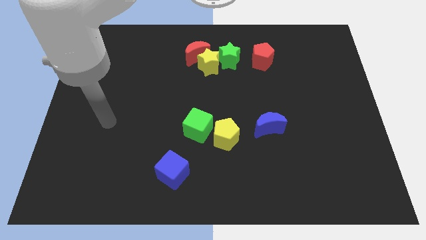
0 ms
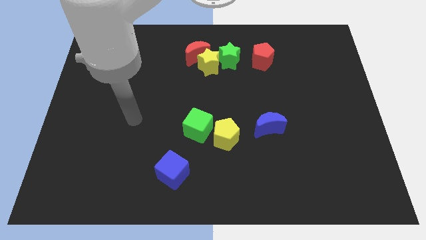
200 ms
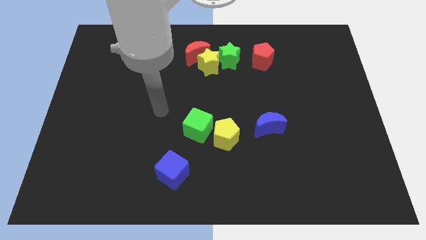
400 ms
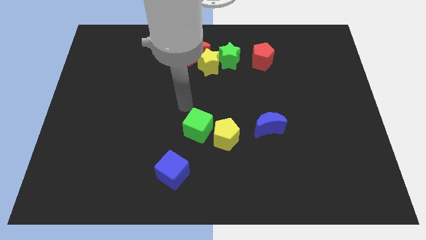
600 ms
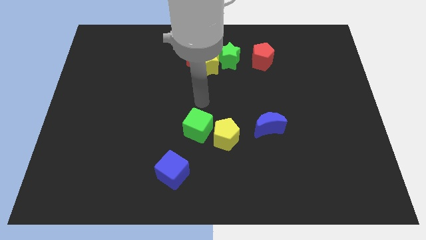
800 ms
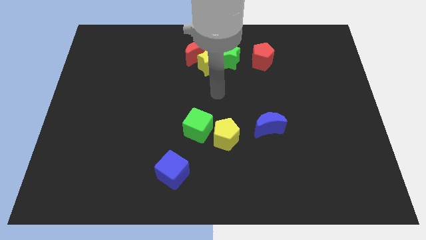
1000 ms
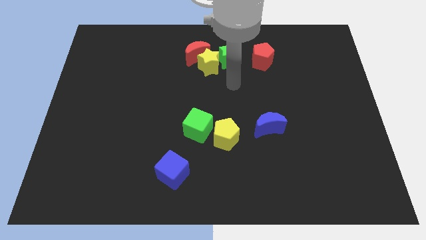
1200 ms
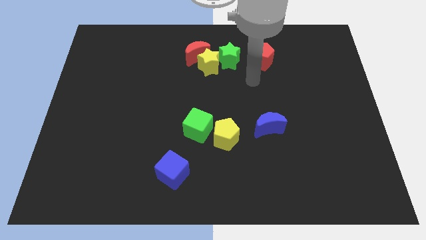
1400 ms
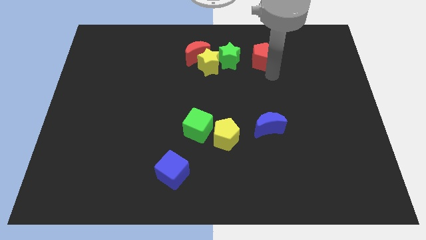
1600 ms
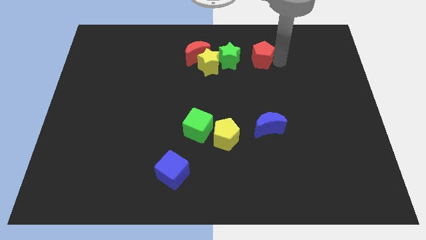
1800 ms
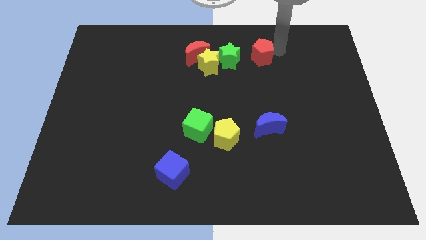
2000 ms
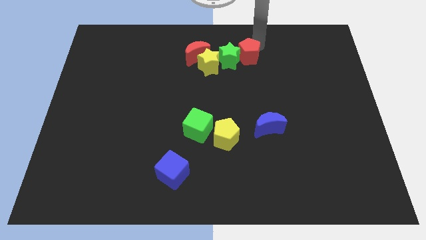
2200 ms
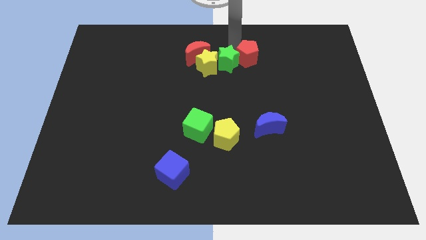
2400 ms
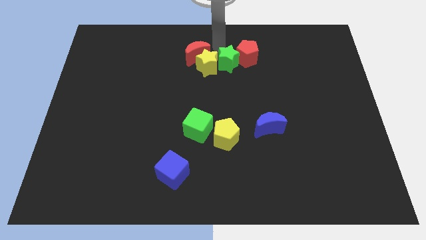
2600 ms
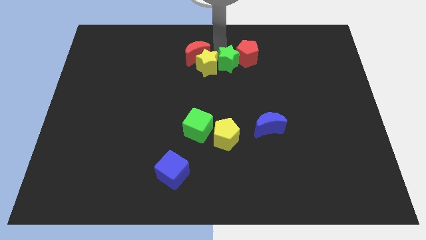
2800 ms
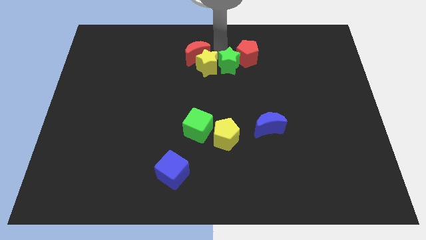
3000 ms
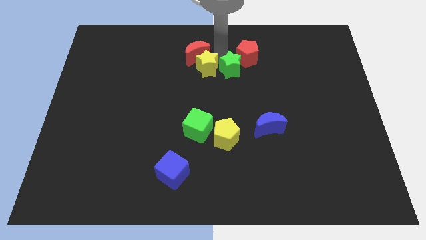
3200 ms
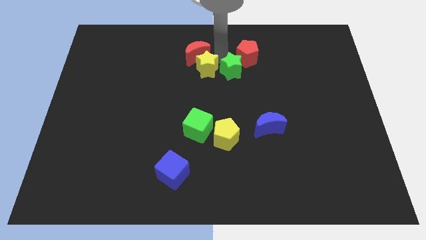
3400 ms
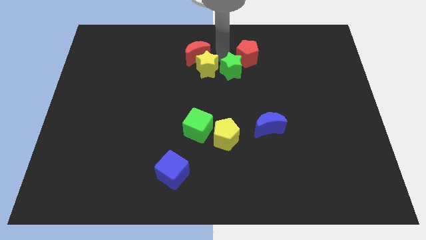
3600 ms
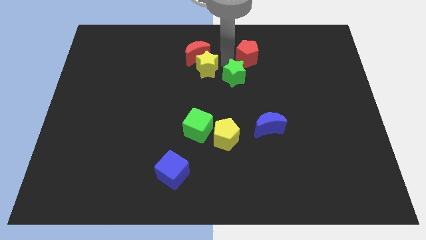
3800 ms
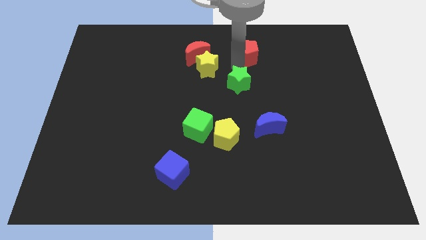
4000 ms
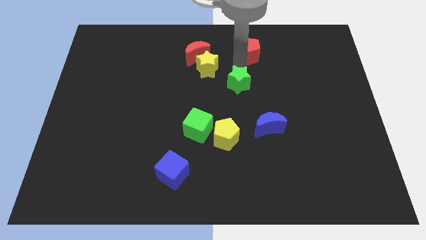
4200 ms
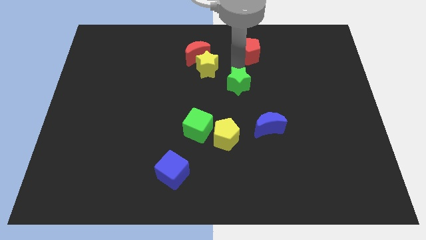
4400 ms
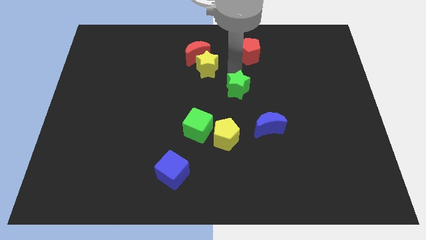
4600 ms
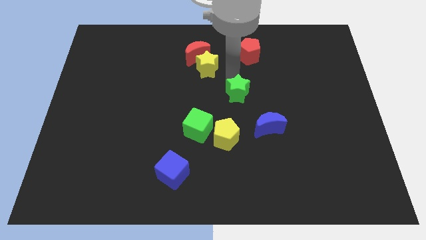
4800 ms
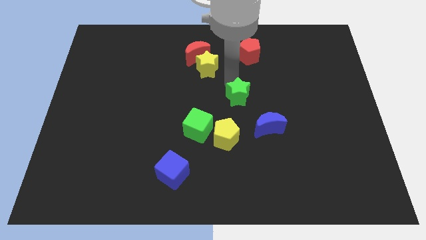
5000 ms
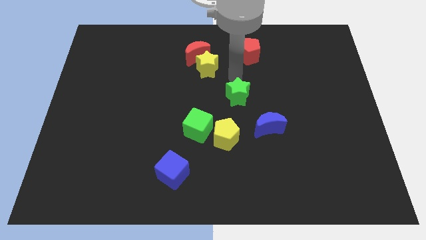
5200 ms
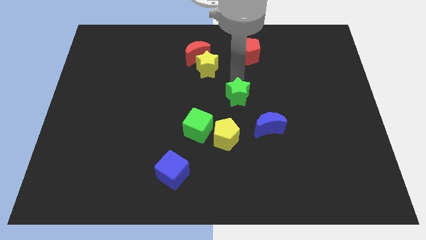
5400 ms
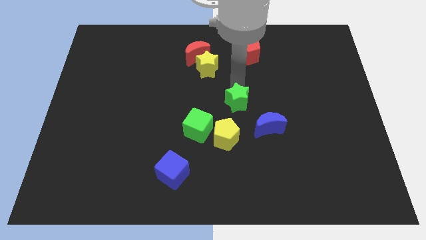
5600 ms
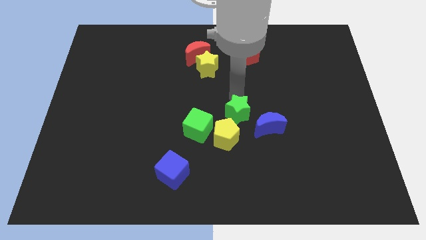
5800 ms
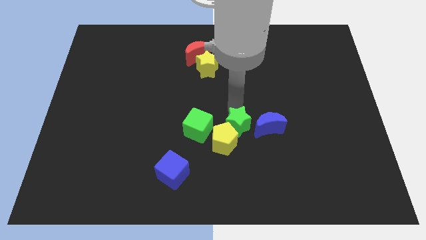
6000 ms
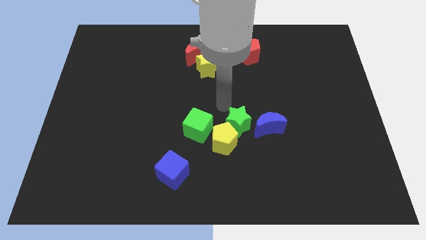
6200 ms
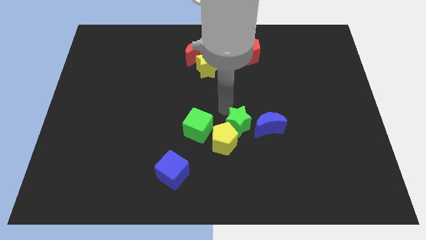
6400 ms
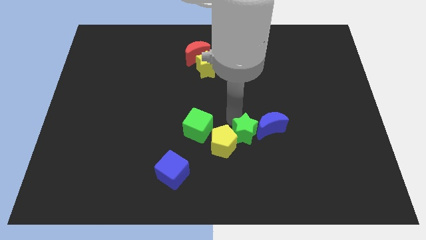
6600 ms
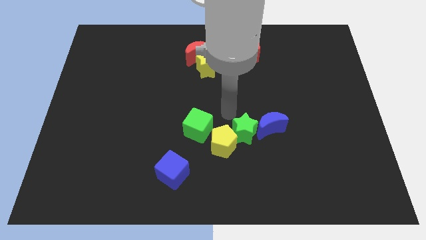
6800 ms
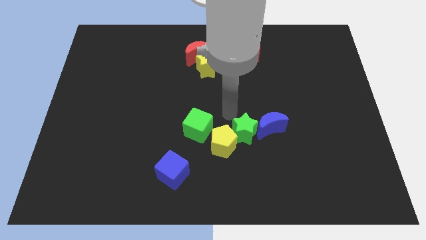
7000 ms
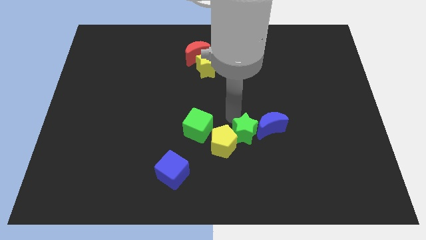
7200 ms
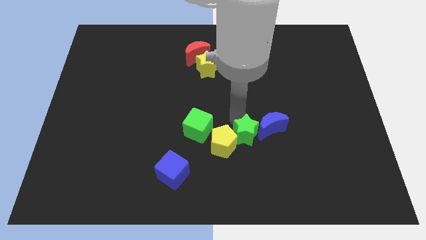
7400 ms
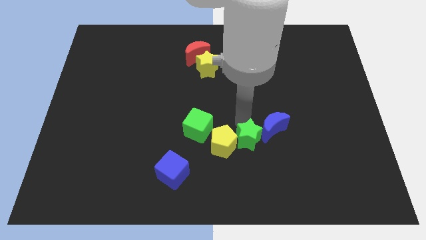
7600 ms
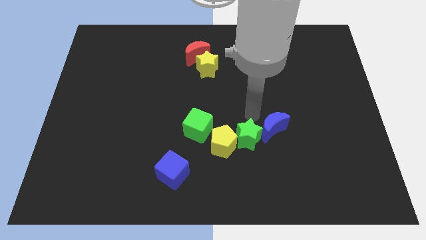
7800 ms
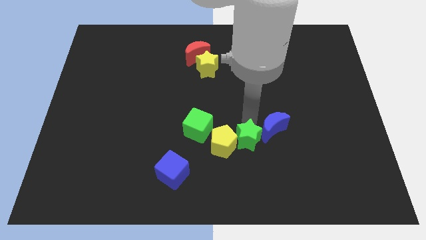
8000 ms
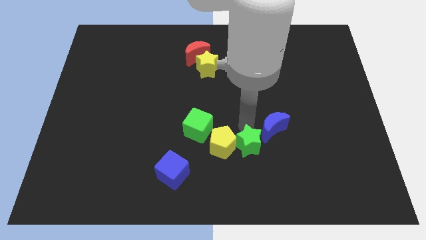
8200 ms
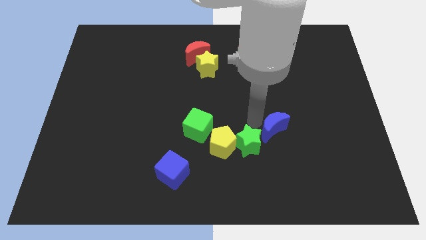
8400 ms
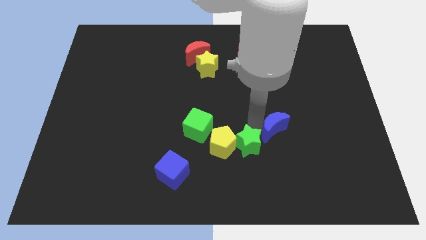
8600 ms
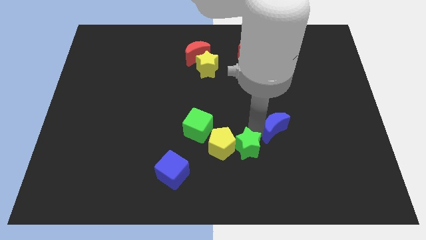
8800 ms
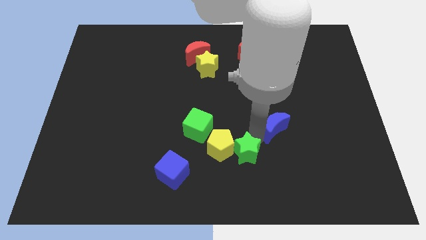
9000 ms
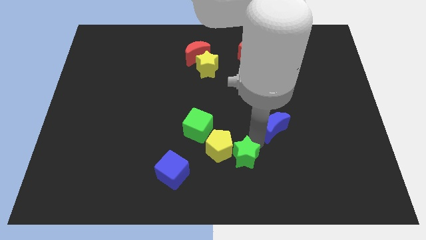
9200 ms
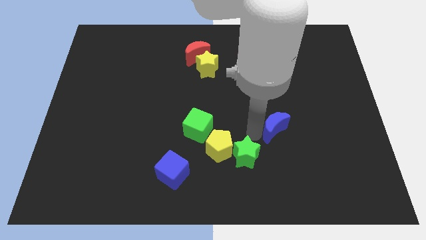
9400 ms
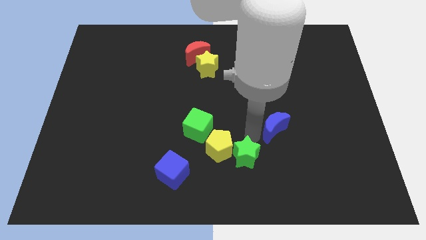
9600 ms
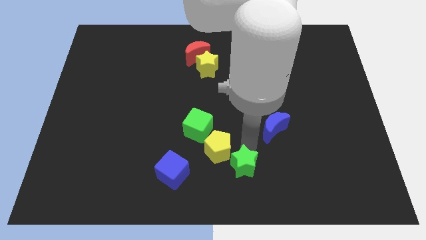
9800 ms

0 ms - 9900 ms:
push the green star to the bottom

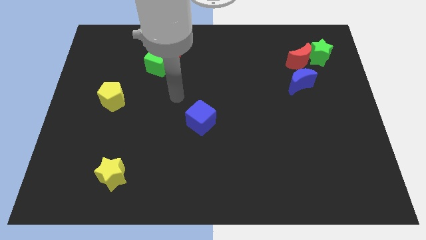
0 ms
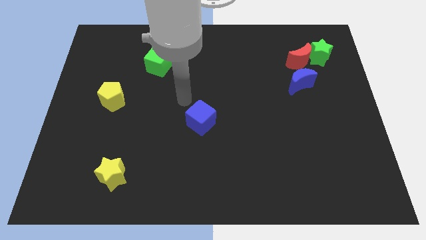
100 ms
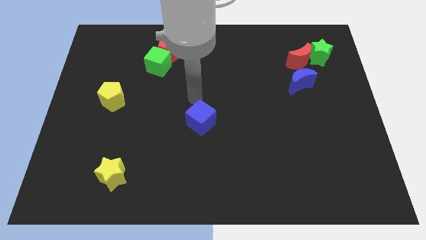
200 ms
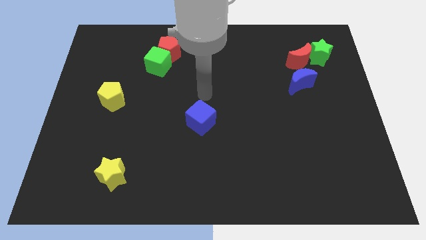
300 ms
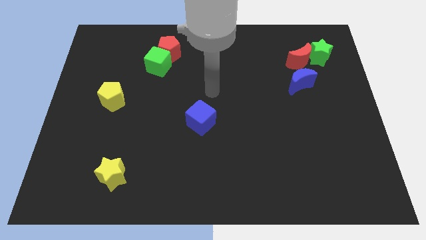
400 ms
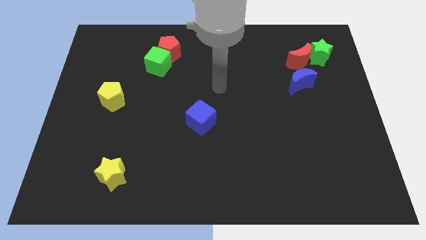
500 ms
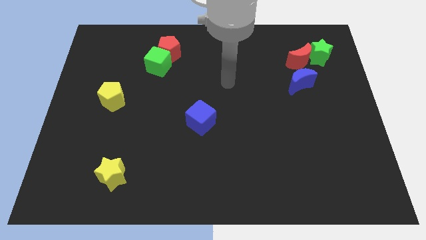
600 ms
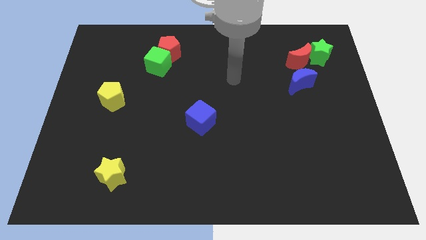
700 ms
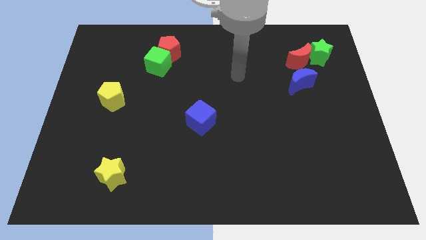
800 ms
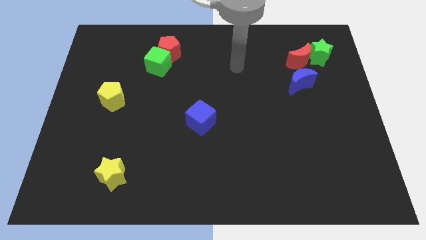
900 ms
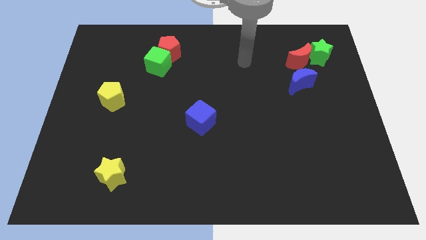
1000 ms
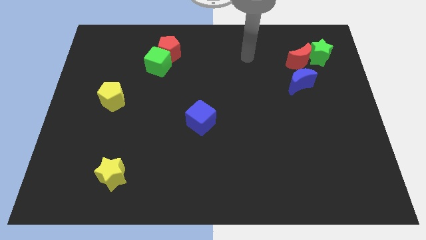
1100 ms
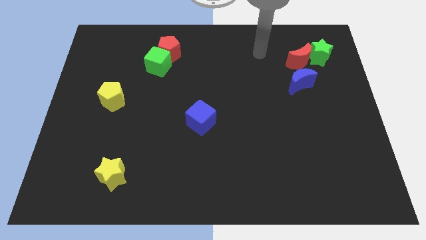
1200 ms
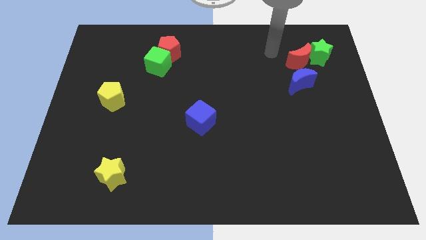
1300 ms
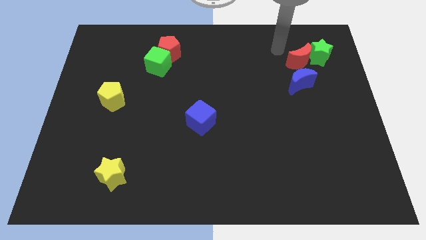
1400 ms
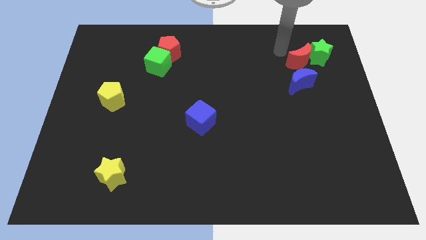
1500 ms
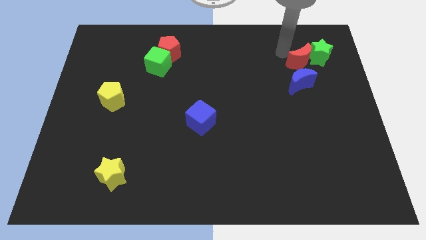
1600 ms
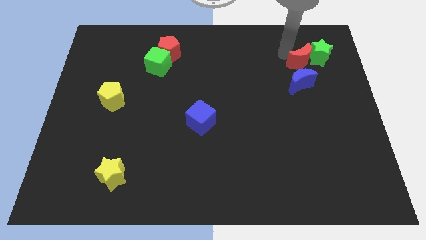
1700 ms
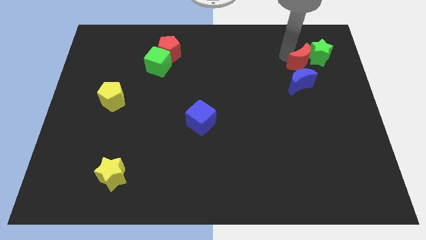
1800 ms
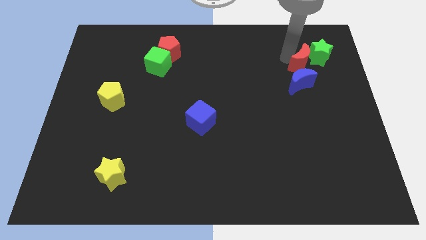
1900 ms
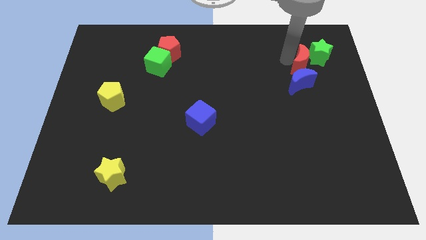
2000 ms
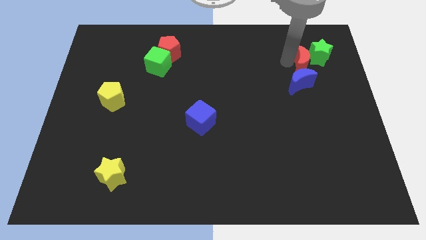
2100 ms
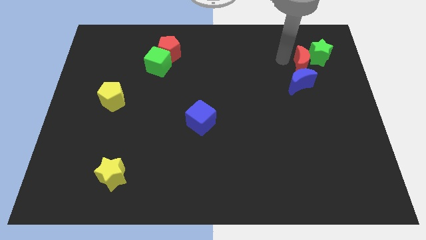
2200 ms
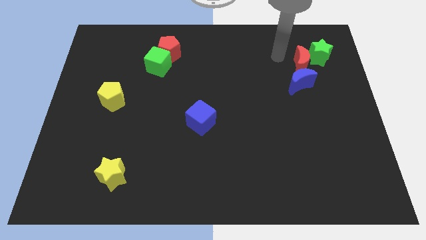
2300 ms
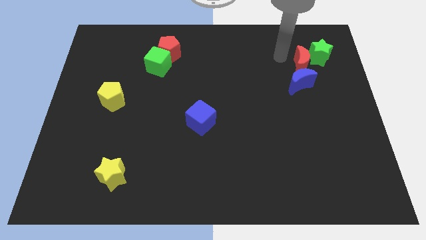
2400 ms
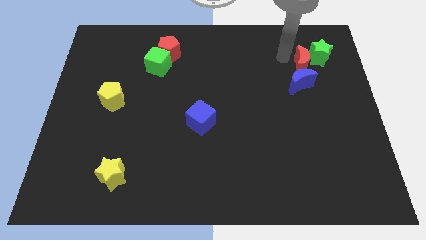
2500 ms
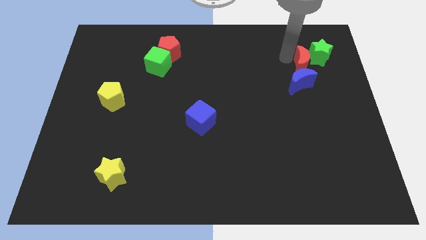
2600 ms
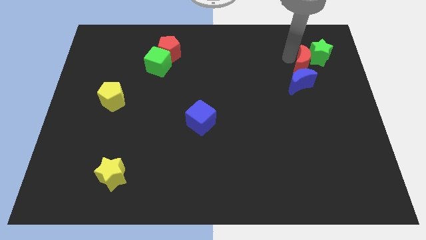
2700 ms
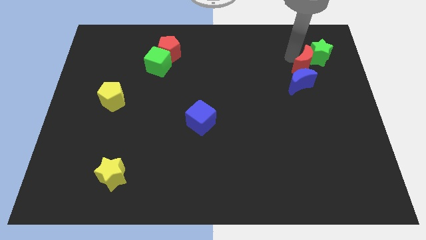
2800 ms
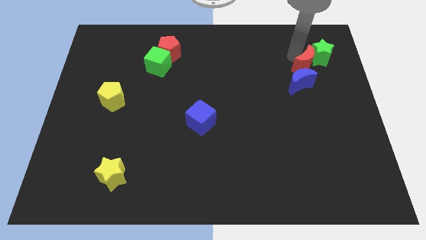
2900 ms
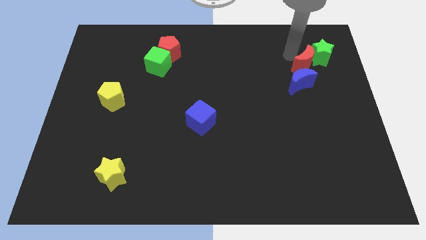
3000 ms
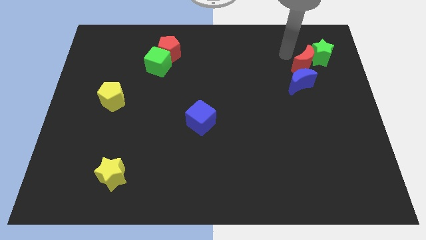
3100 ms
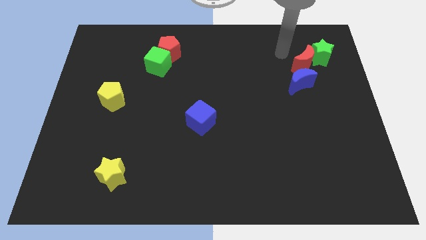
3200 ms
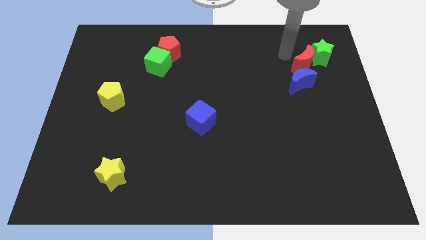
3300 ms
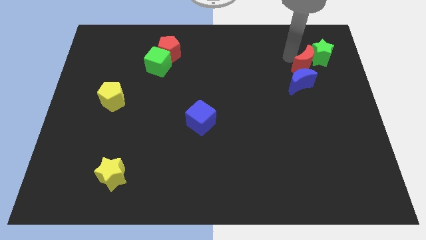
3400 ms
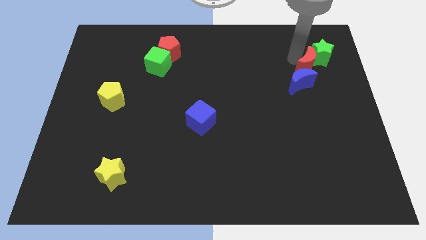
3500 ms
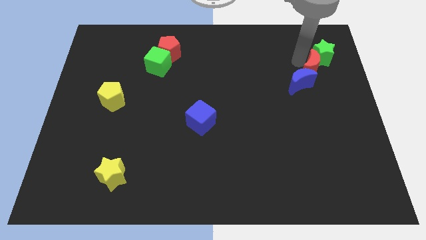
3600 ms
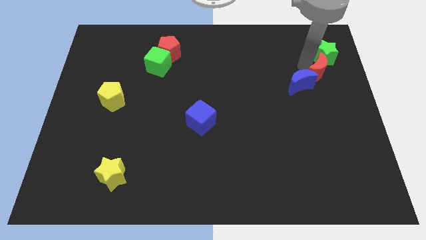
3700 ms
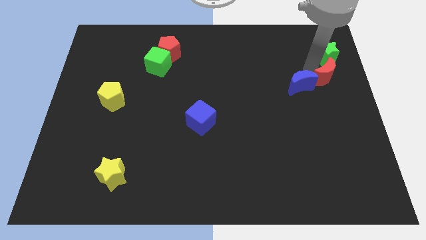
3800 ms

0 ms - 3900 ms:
move the red moon to the center right
